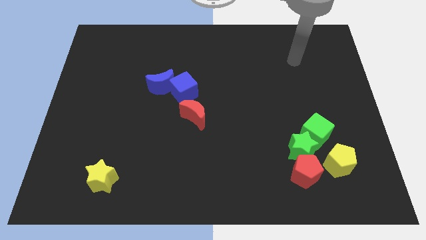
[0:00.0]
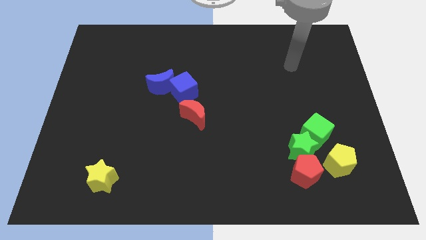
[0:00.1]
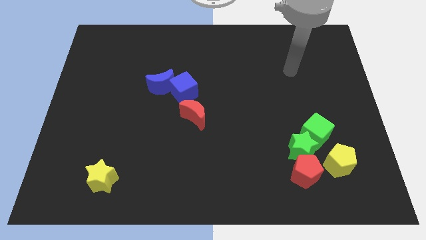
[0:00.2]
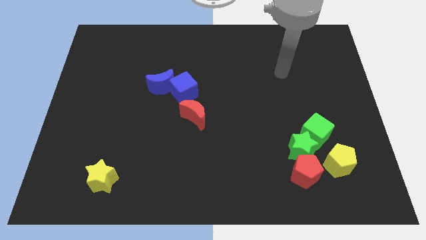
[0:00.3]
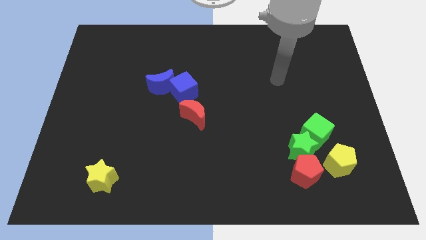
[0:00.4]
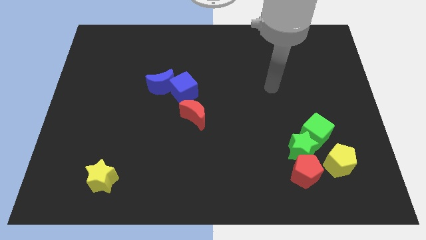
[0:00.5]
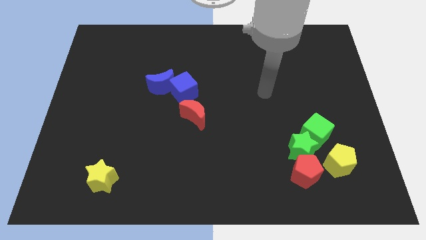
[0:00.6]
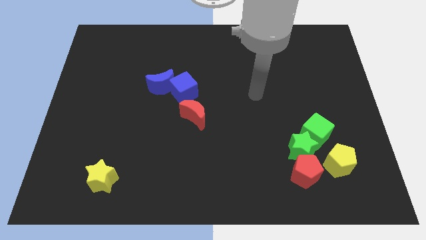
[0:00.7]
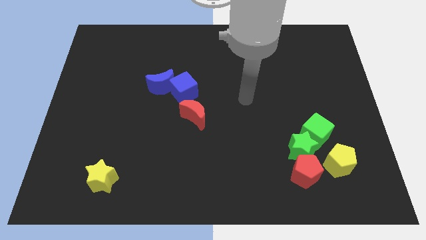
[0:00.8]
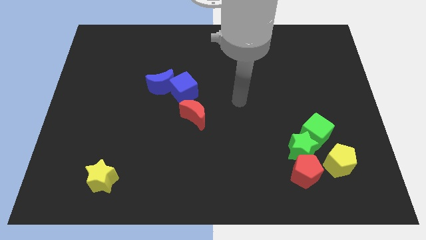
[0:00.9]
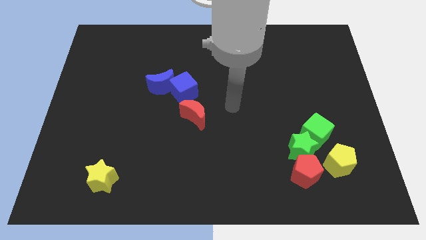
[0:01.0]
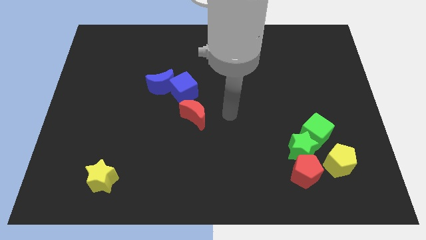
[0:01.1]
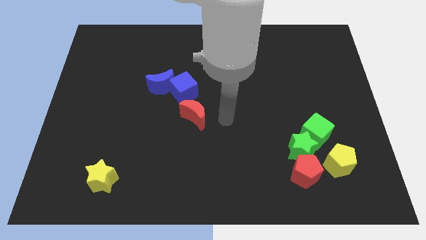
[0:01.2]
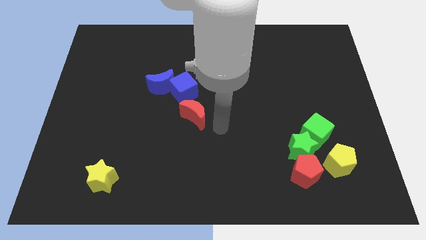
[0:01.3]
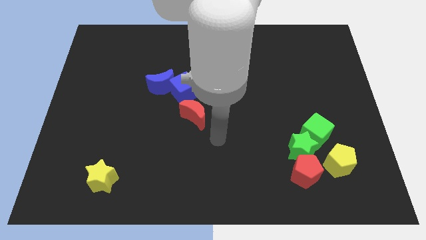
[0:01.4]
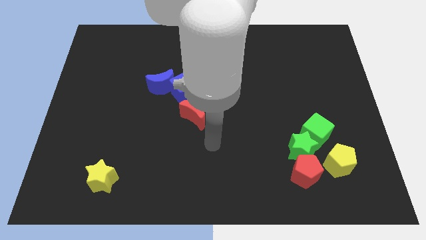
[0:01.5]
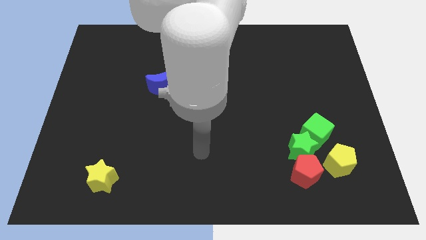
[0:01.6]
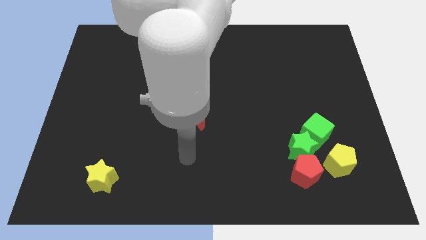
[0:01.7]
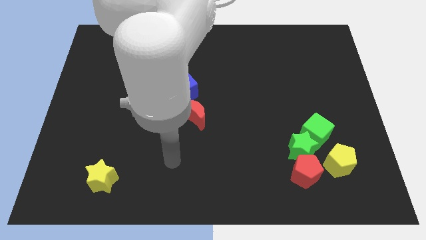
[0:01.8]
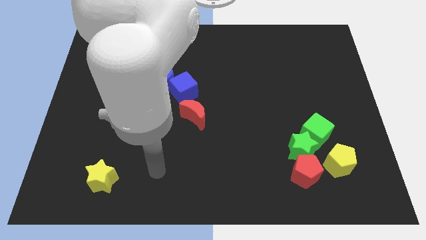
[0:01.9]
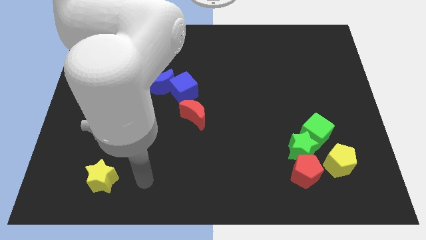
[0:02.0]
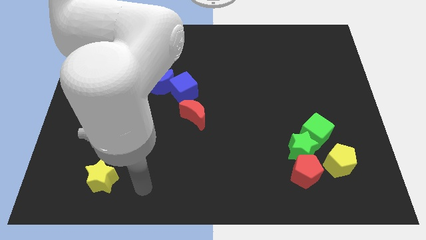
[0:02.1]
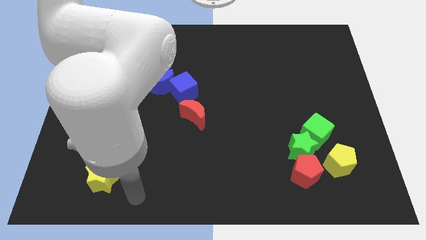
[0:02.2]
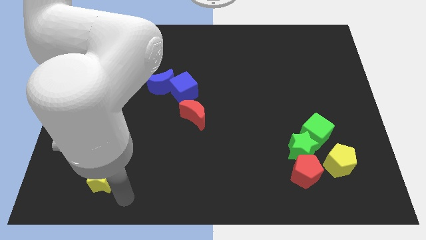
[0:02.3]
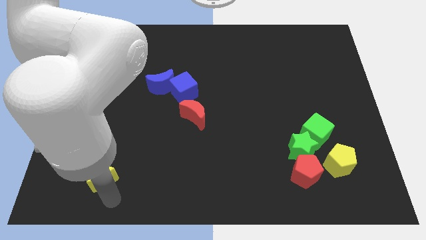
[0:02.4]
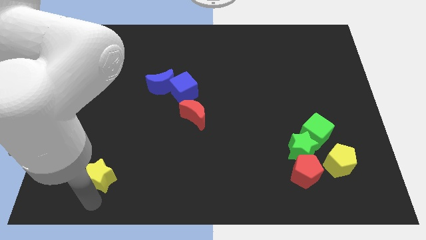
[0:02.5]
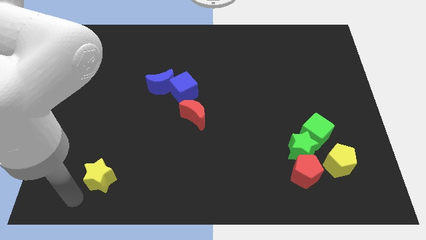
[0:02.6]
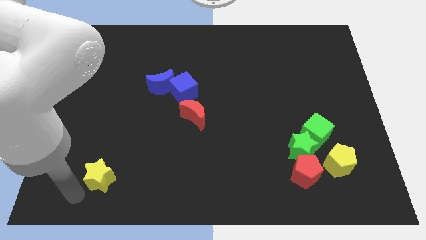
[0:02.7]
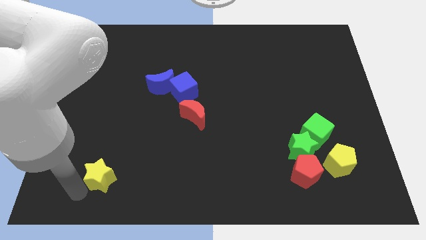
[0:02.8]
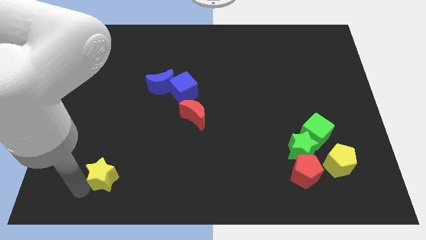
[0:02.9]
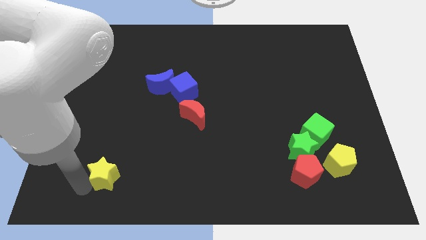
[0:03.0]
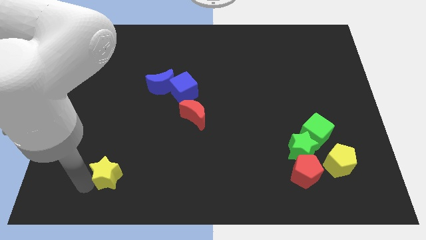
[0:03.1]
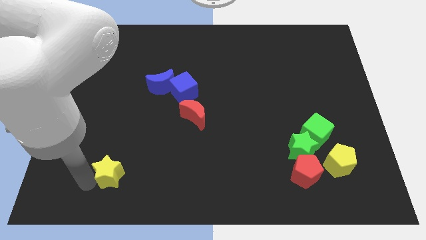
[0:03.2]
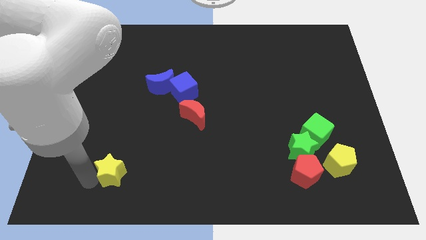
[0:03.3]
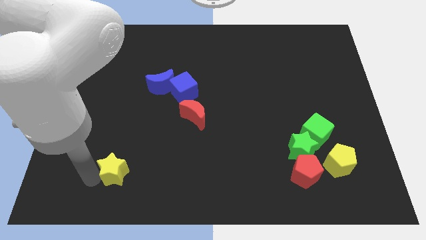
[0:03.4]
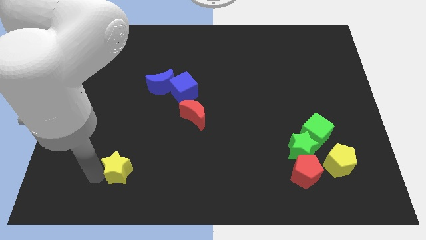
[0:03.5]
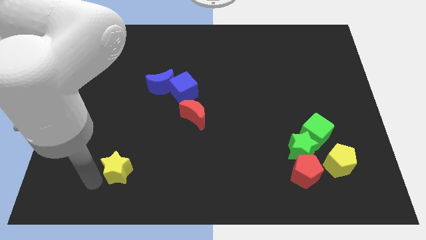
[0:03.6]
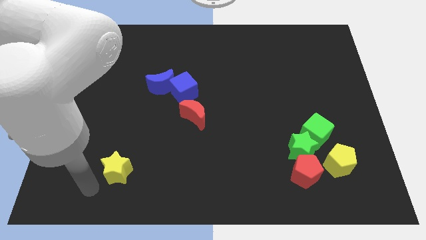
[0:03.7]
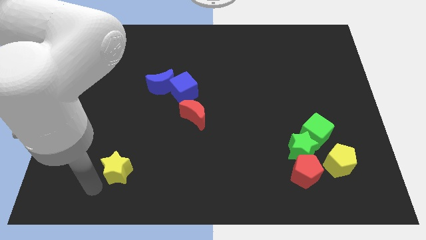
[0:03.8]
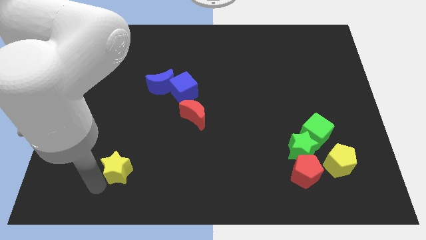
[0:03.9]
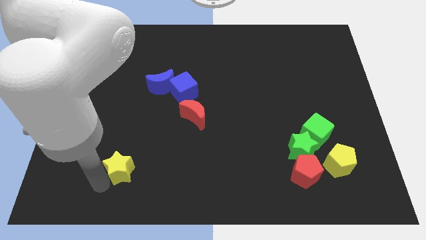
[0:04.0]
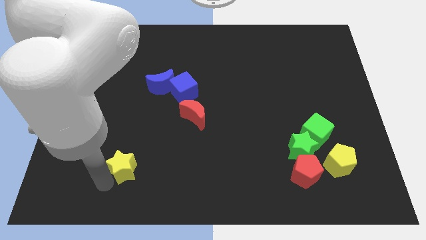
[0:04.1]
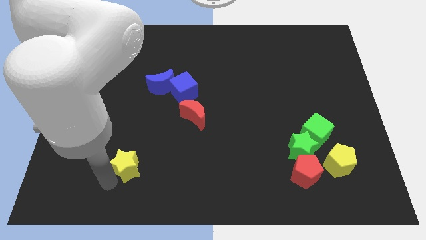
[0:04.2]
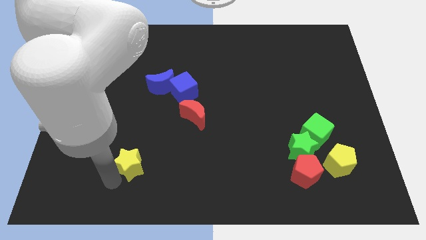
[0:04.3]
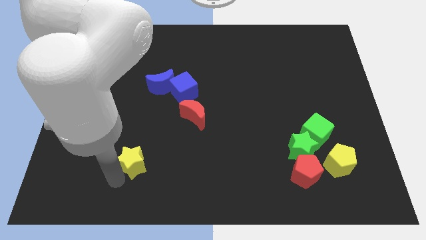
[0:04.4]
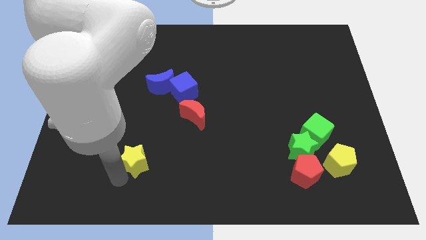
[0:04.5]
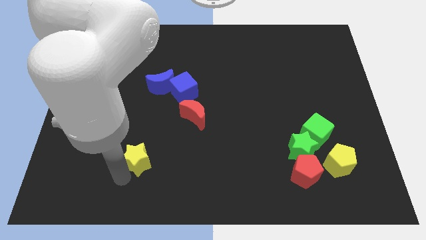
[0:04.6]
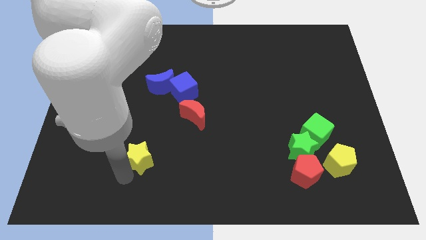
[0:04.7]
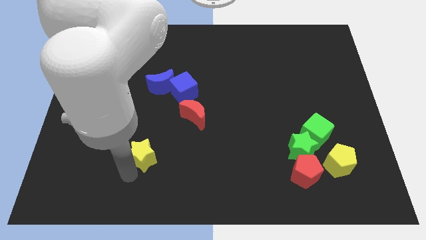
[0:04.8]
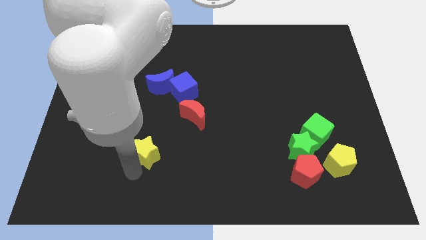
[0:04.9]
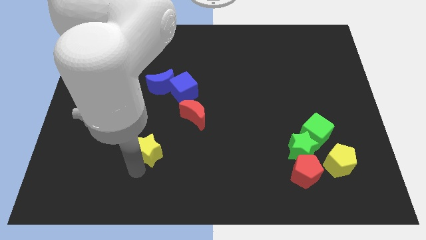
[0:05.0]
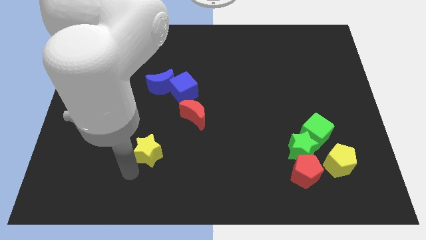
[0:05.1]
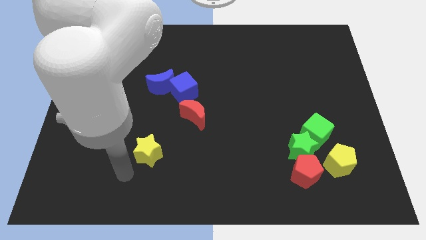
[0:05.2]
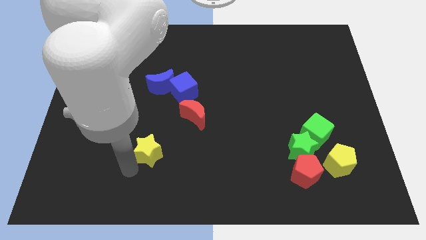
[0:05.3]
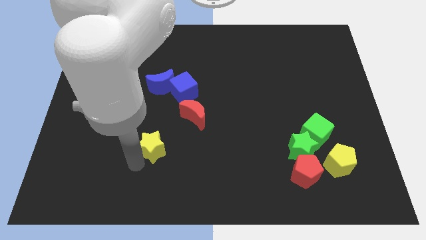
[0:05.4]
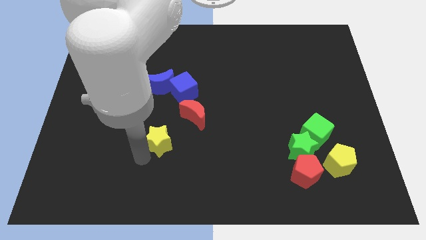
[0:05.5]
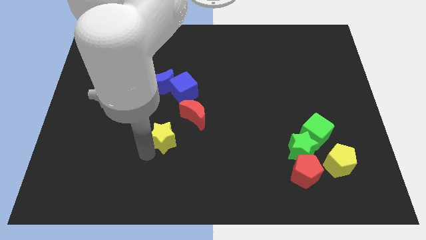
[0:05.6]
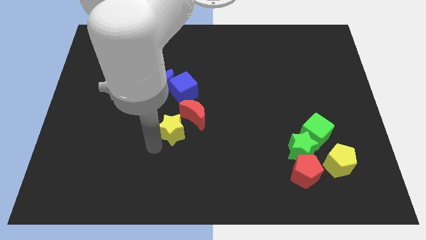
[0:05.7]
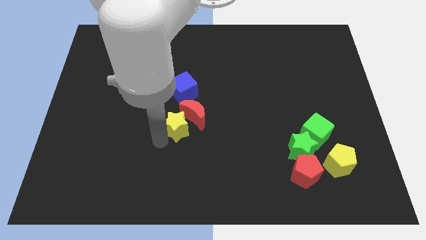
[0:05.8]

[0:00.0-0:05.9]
push the yellow star towards the red moon

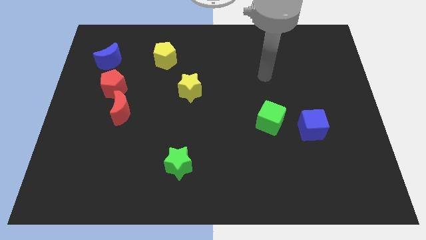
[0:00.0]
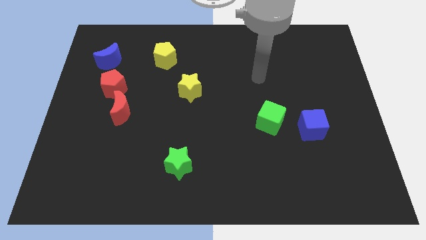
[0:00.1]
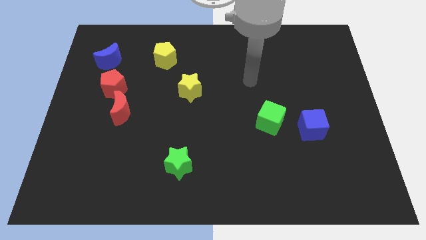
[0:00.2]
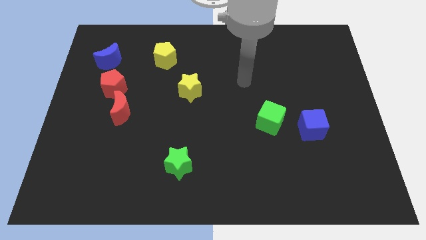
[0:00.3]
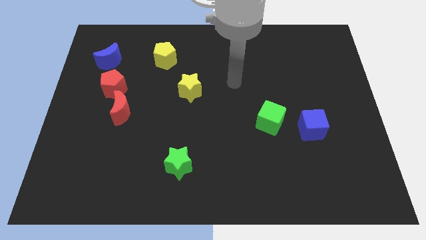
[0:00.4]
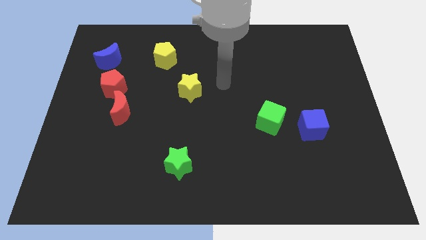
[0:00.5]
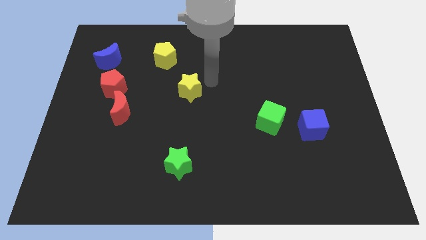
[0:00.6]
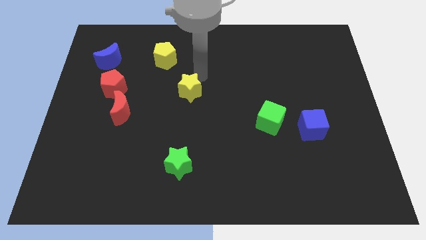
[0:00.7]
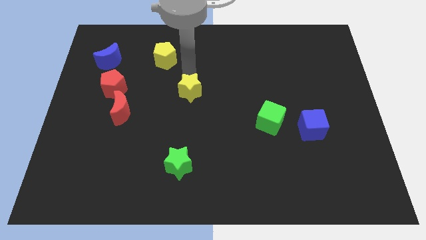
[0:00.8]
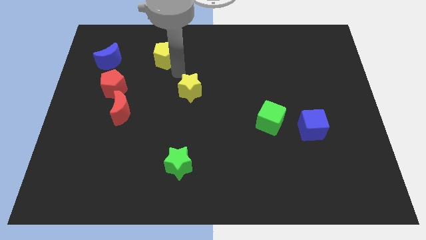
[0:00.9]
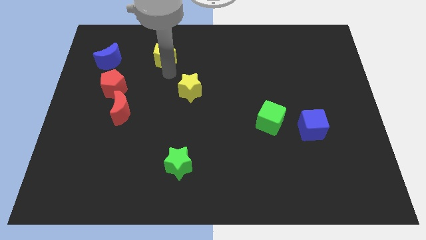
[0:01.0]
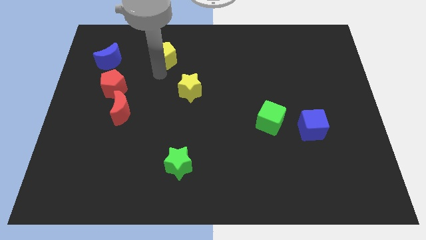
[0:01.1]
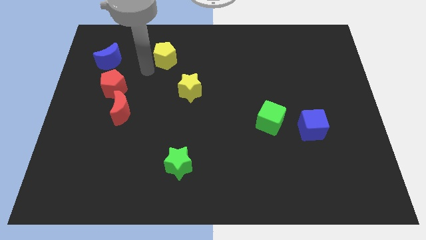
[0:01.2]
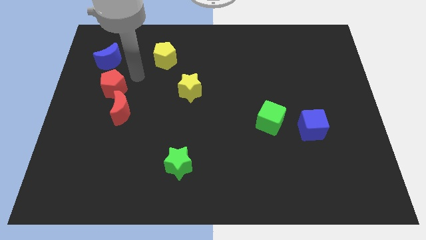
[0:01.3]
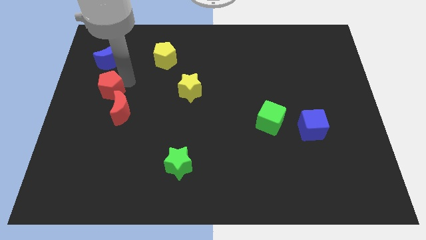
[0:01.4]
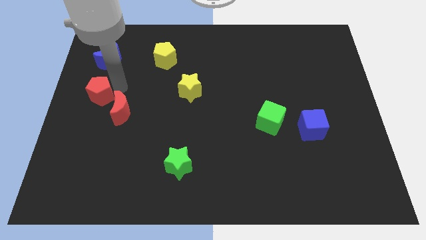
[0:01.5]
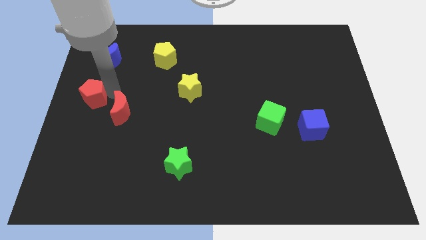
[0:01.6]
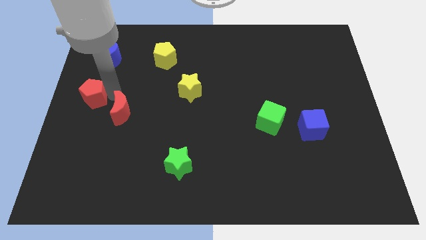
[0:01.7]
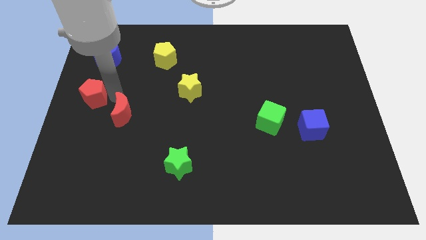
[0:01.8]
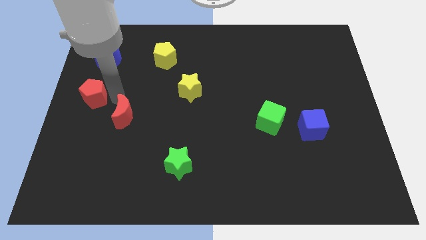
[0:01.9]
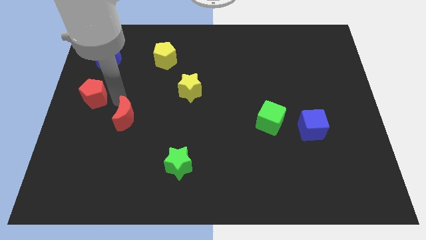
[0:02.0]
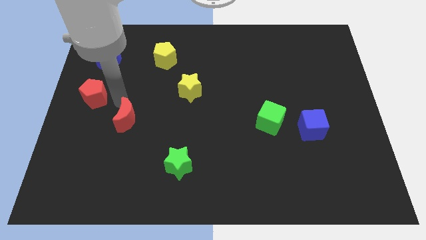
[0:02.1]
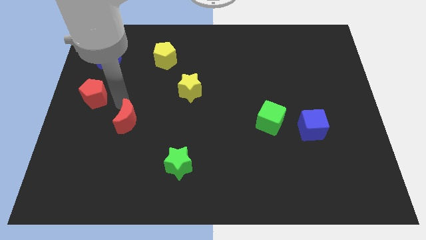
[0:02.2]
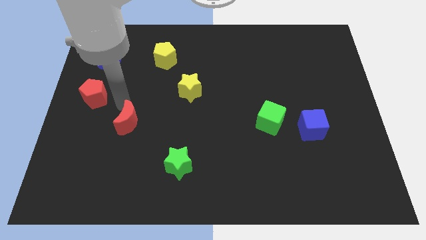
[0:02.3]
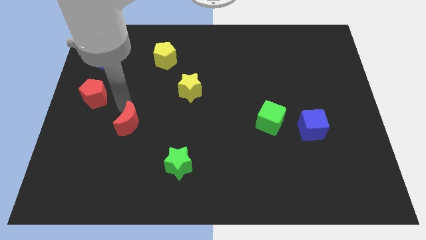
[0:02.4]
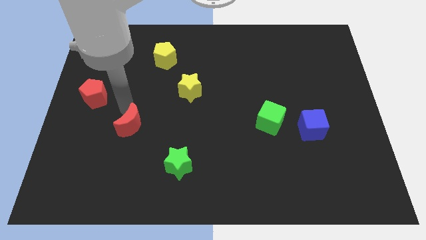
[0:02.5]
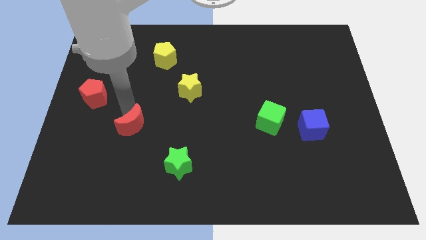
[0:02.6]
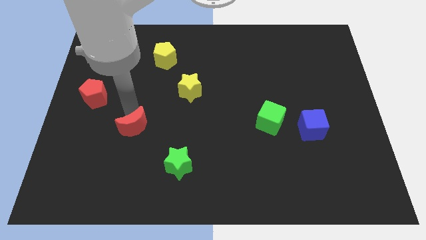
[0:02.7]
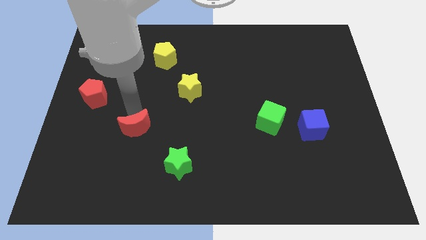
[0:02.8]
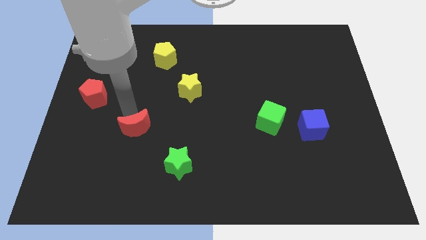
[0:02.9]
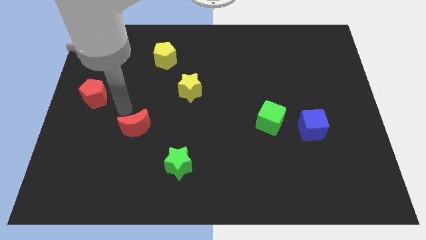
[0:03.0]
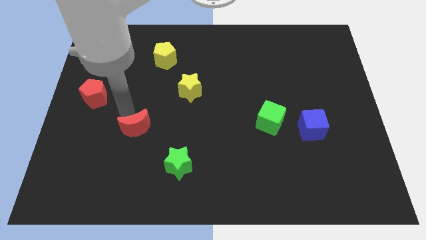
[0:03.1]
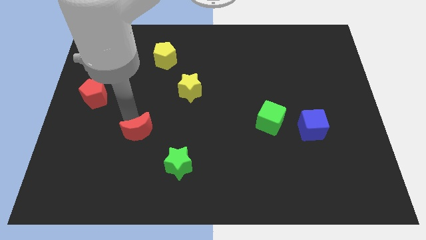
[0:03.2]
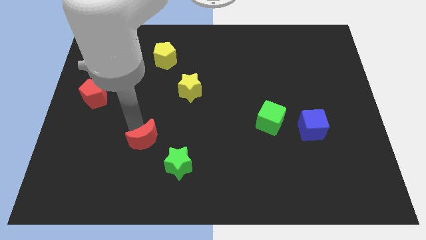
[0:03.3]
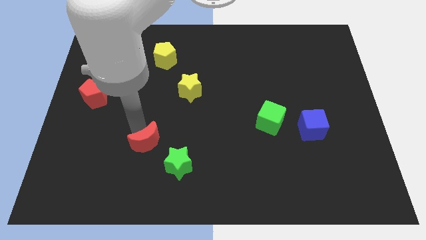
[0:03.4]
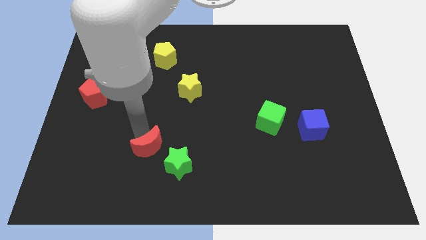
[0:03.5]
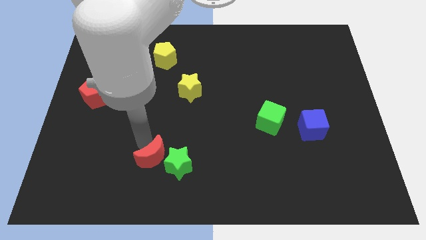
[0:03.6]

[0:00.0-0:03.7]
put the red moon next to the green star
